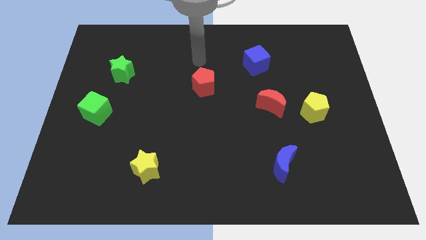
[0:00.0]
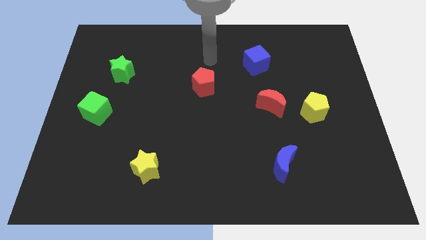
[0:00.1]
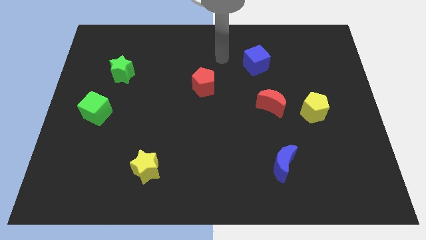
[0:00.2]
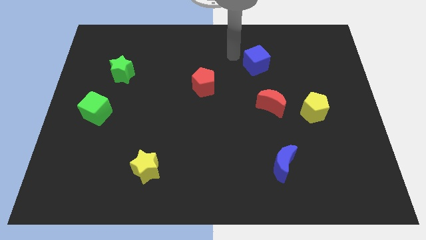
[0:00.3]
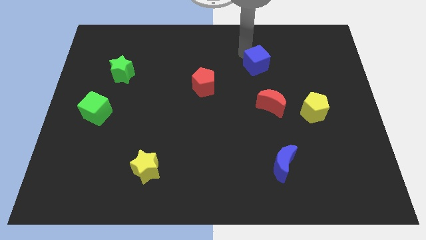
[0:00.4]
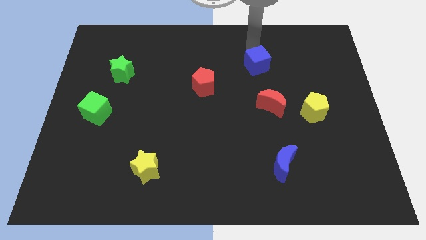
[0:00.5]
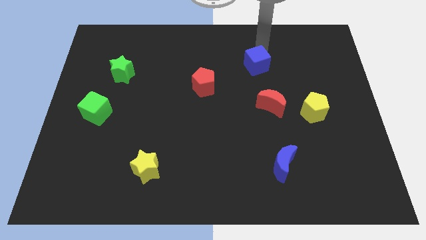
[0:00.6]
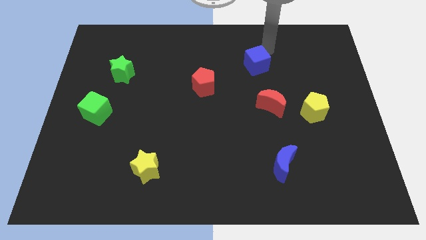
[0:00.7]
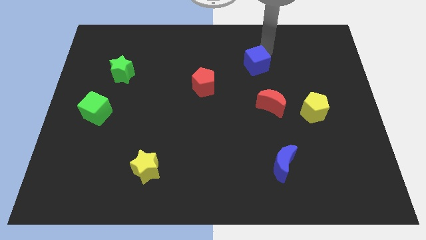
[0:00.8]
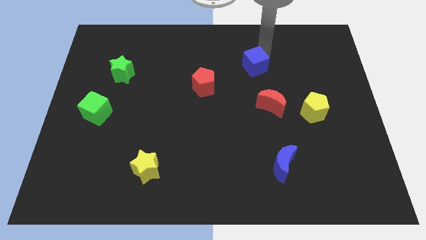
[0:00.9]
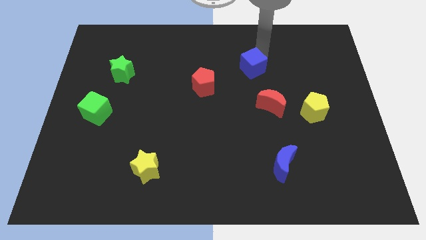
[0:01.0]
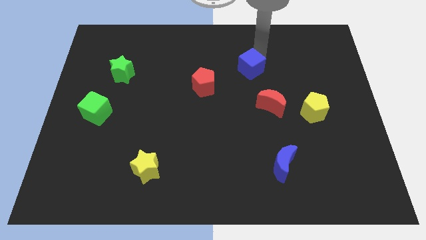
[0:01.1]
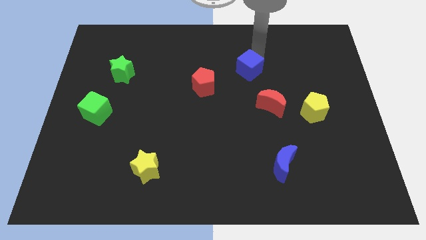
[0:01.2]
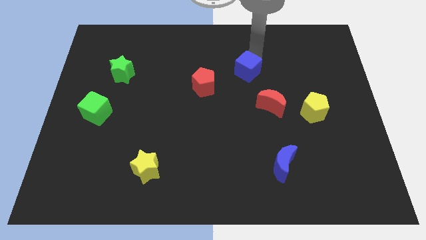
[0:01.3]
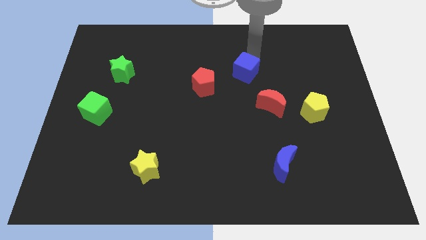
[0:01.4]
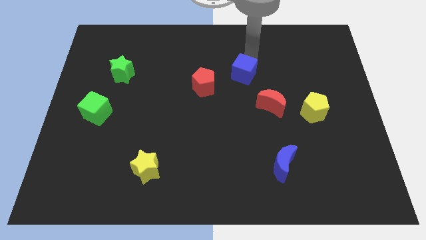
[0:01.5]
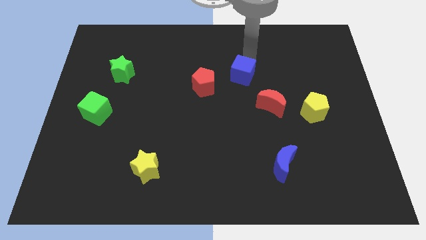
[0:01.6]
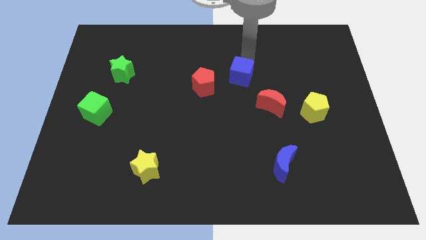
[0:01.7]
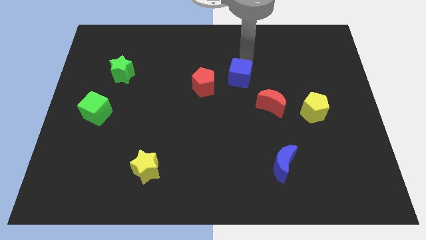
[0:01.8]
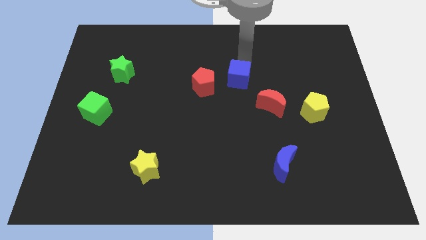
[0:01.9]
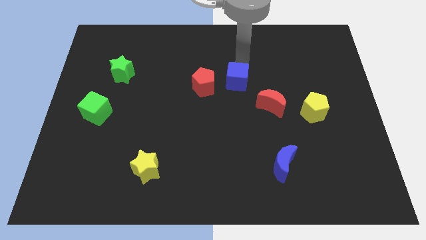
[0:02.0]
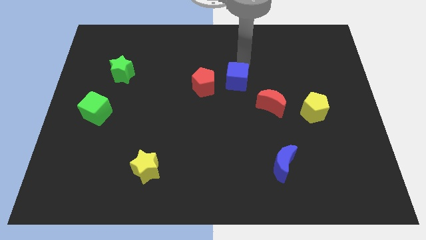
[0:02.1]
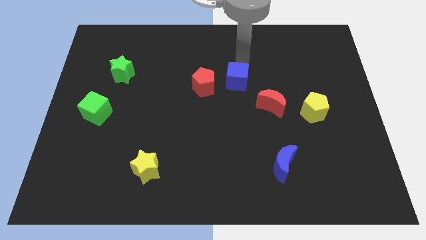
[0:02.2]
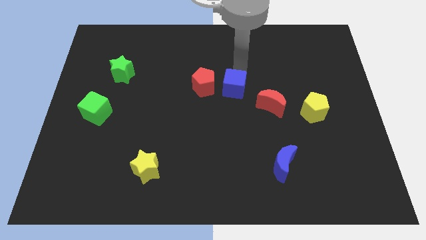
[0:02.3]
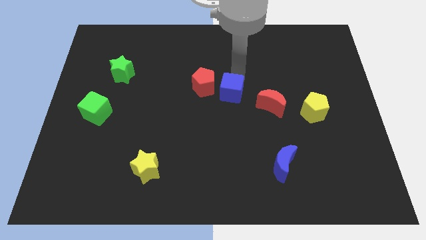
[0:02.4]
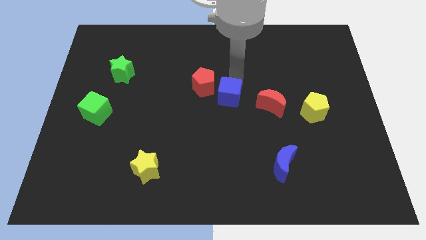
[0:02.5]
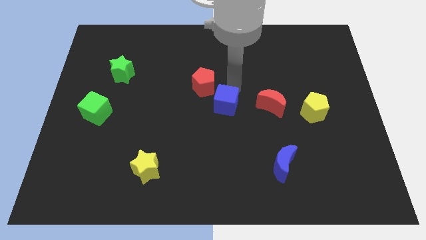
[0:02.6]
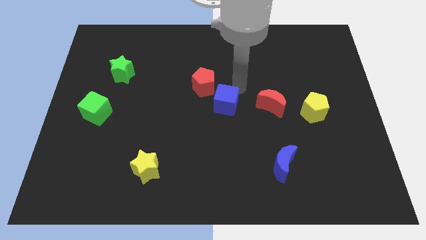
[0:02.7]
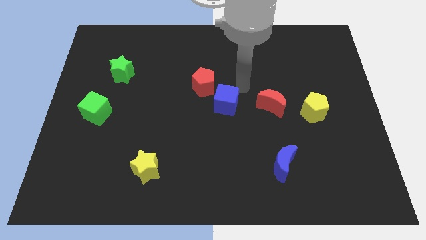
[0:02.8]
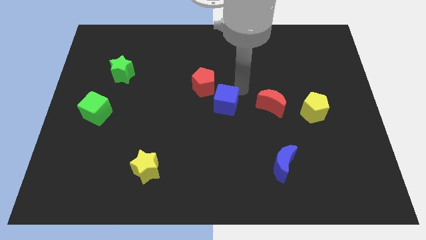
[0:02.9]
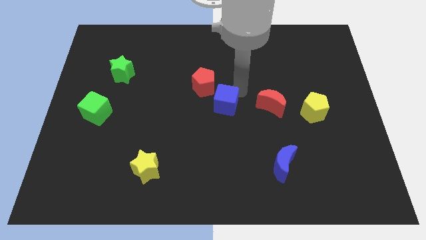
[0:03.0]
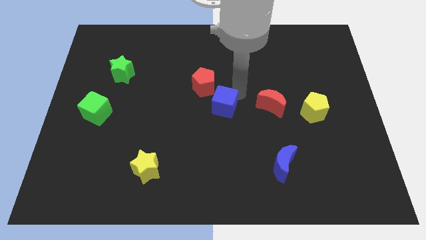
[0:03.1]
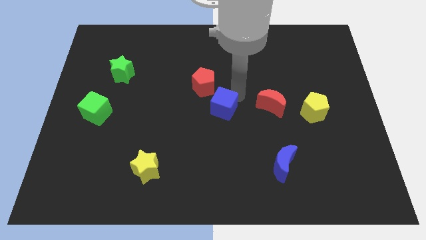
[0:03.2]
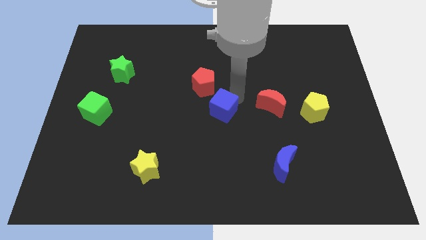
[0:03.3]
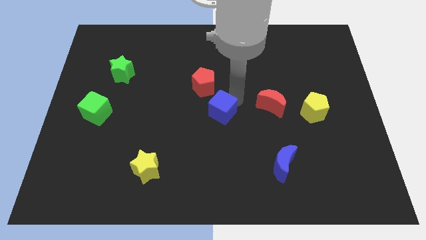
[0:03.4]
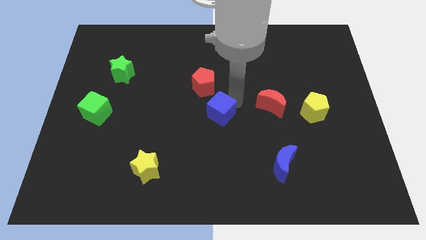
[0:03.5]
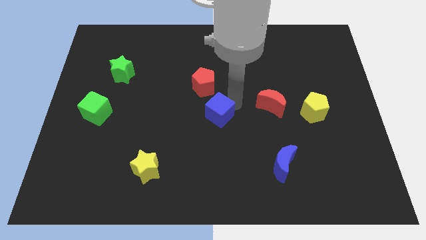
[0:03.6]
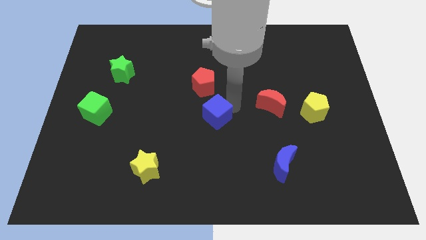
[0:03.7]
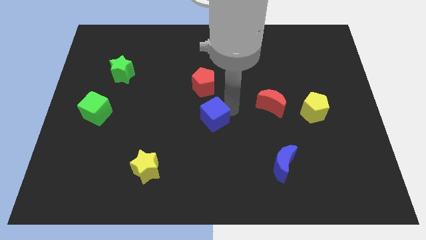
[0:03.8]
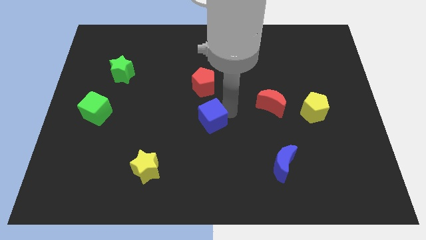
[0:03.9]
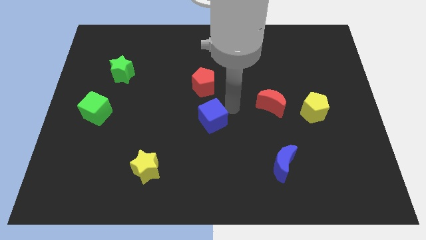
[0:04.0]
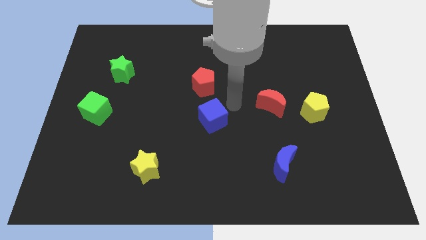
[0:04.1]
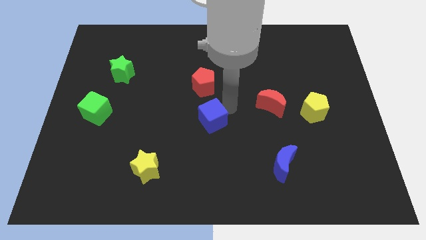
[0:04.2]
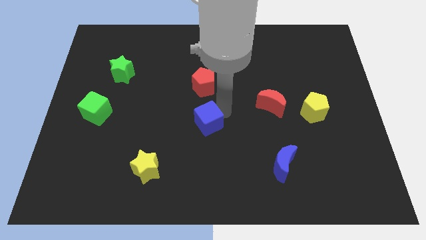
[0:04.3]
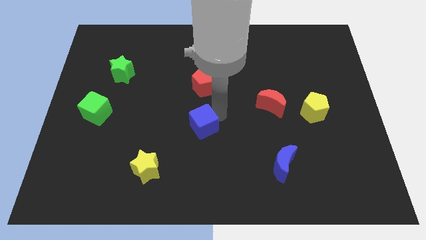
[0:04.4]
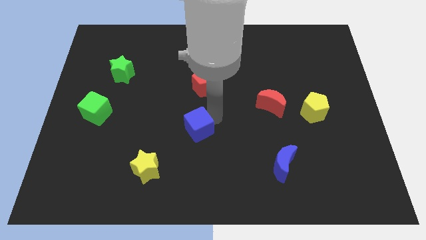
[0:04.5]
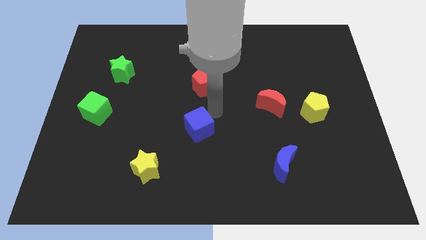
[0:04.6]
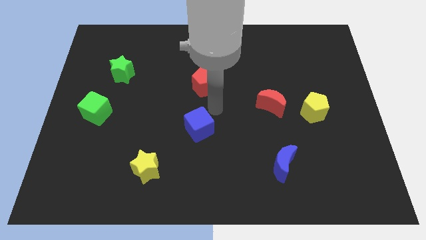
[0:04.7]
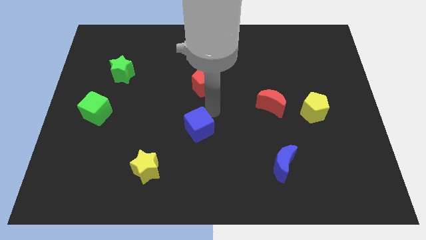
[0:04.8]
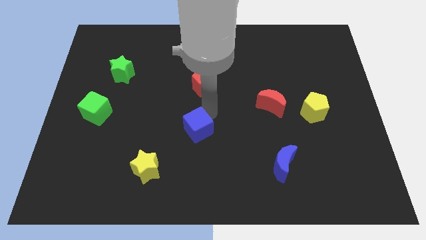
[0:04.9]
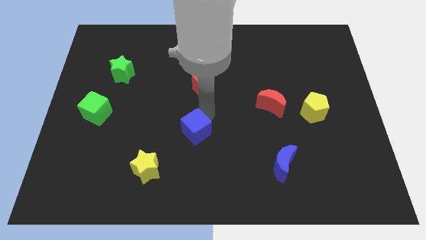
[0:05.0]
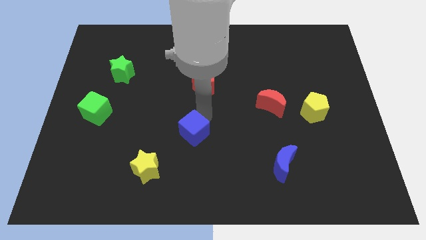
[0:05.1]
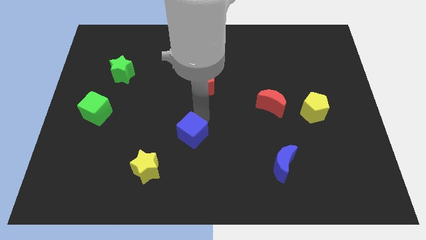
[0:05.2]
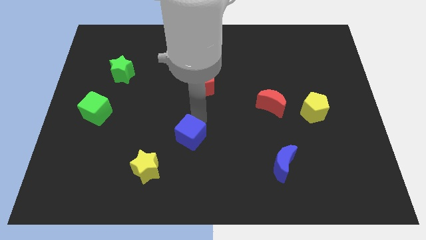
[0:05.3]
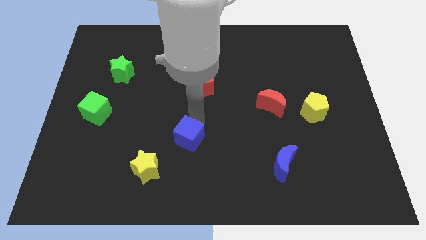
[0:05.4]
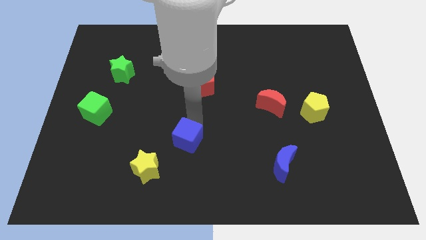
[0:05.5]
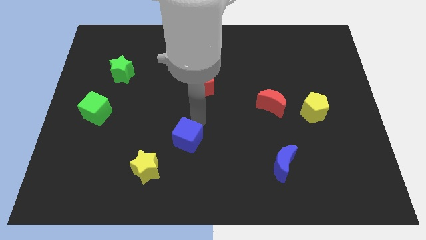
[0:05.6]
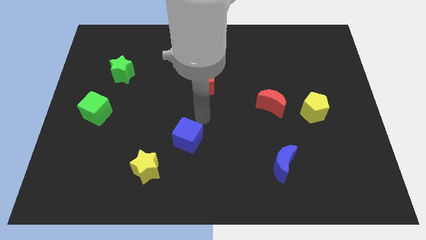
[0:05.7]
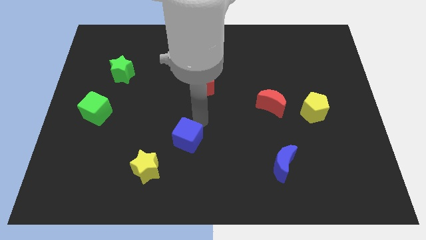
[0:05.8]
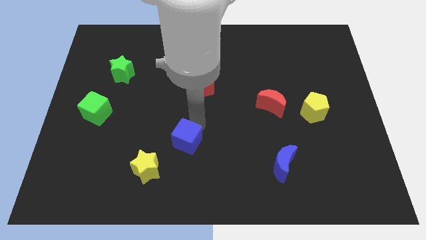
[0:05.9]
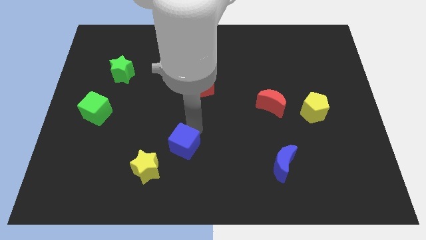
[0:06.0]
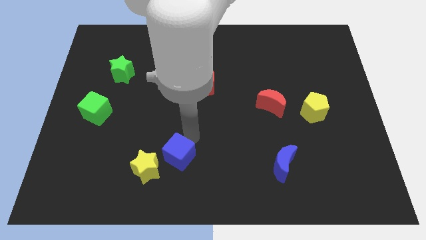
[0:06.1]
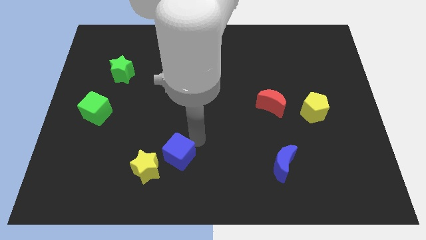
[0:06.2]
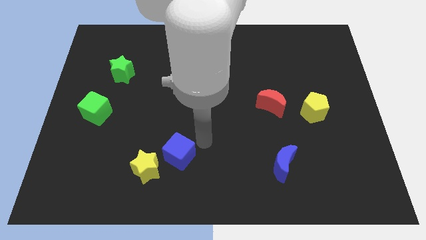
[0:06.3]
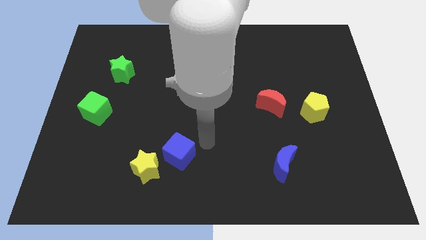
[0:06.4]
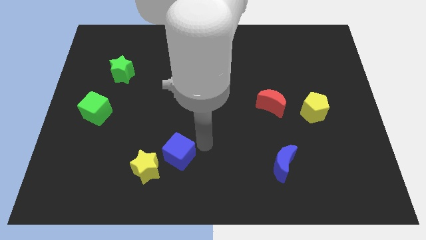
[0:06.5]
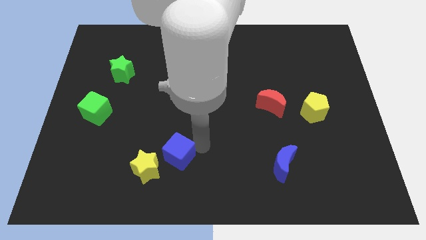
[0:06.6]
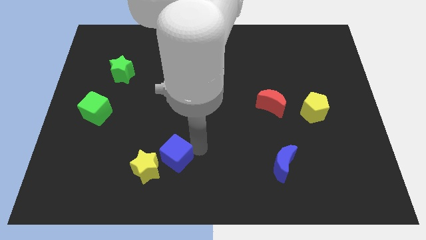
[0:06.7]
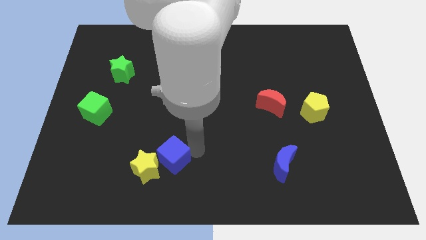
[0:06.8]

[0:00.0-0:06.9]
slide the blue cube next to the yellow star
